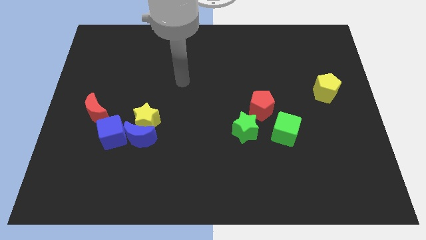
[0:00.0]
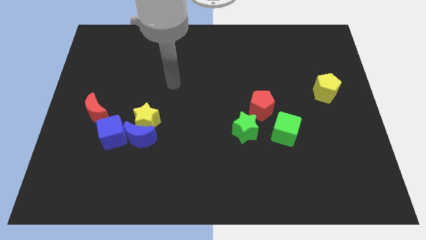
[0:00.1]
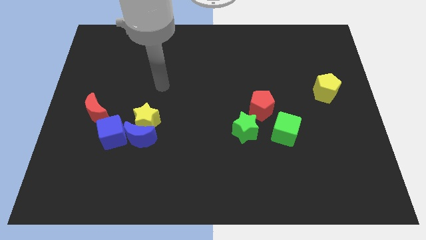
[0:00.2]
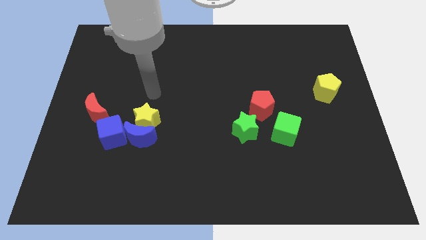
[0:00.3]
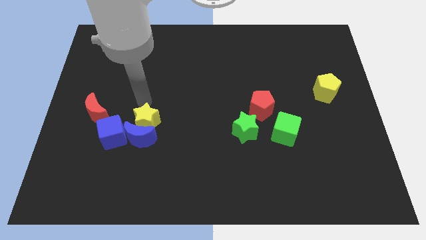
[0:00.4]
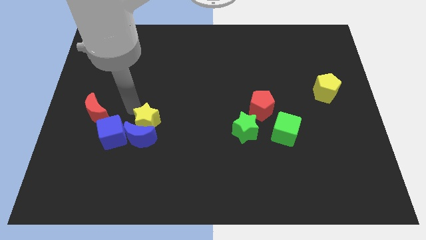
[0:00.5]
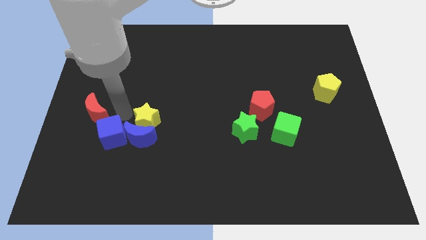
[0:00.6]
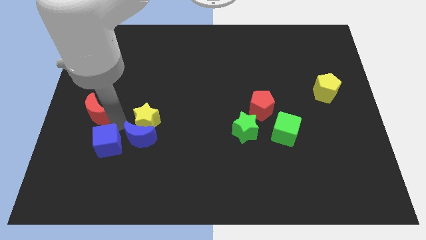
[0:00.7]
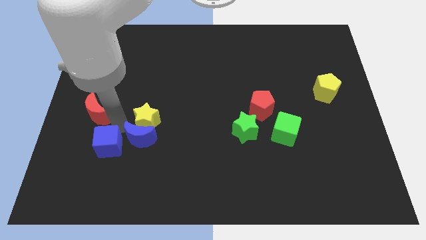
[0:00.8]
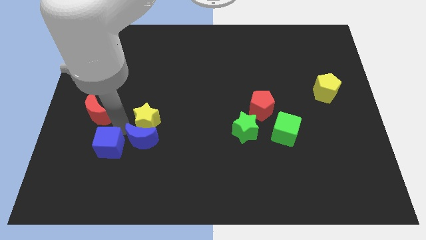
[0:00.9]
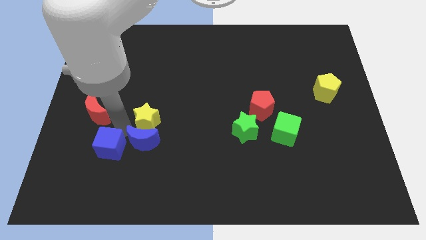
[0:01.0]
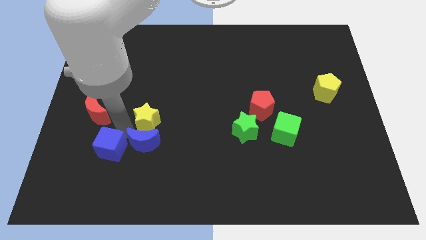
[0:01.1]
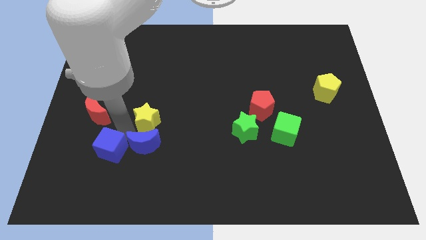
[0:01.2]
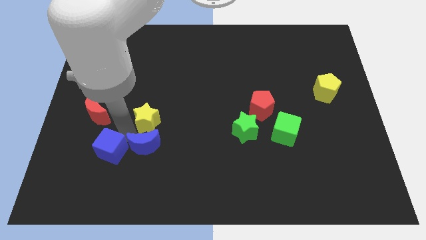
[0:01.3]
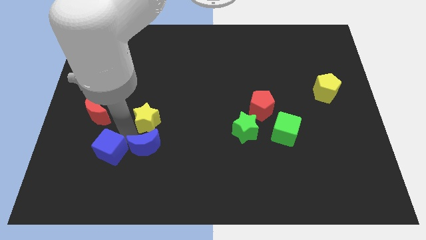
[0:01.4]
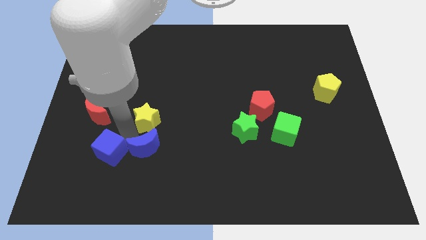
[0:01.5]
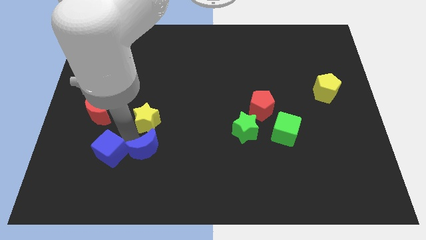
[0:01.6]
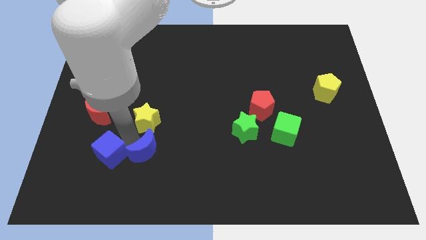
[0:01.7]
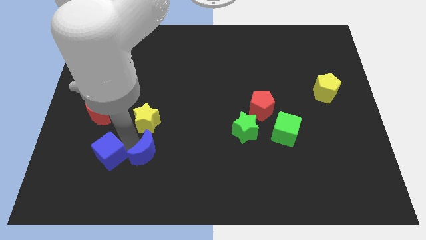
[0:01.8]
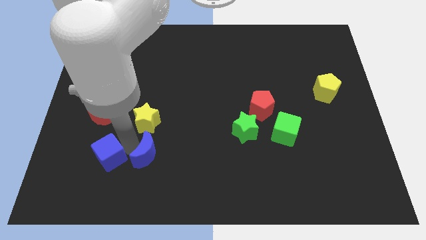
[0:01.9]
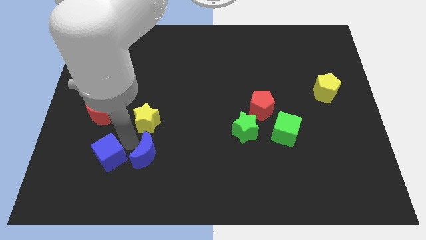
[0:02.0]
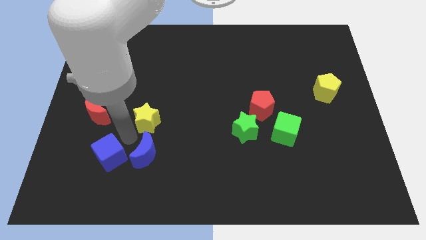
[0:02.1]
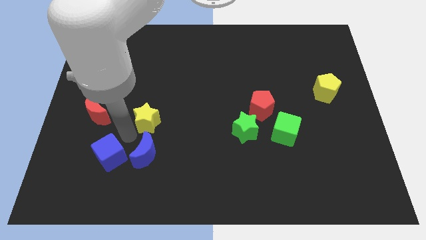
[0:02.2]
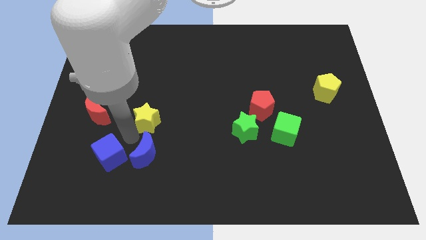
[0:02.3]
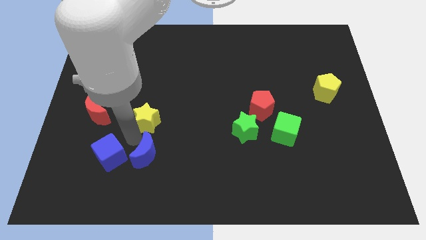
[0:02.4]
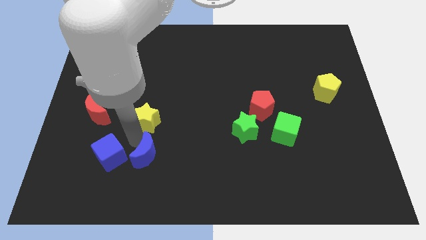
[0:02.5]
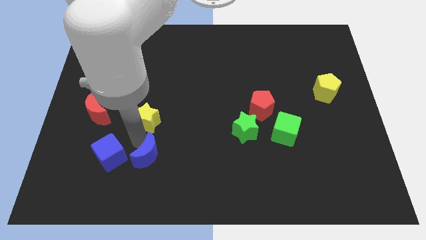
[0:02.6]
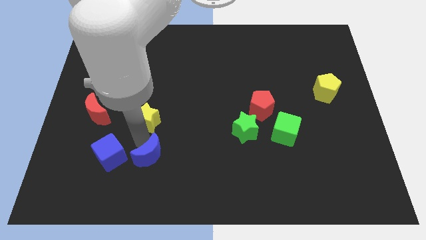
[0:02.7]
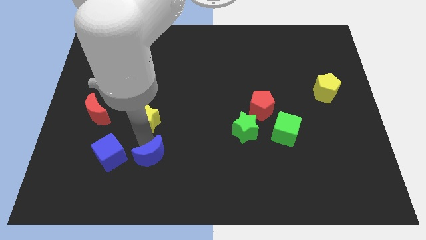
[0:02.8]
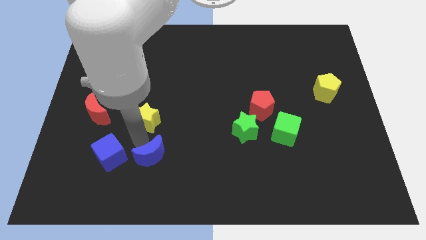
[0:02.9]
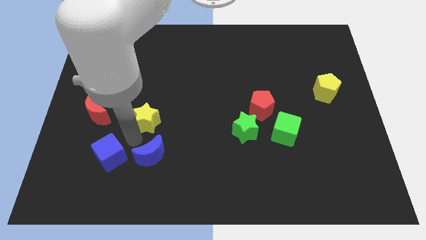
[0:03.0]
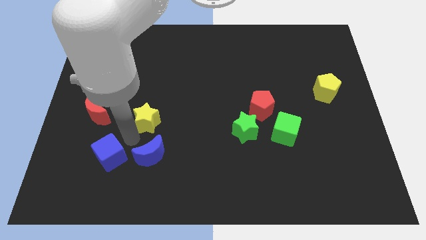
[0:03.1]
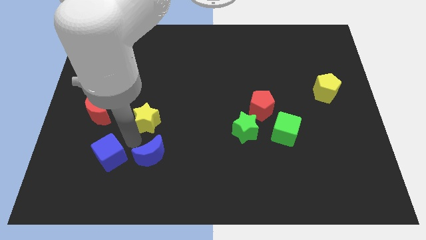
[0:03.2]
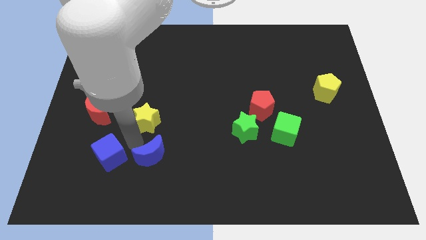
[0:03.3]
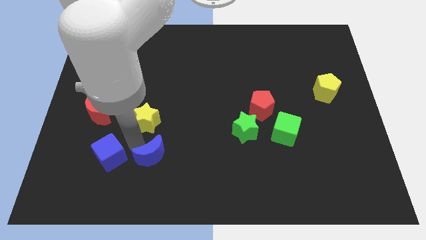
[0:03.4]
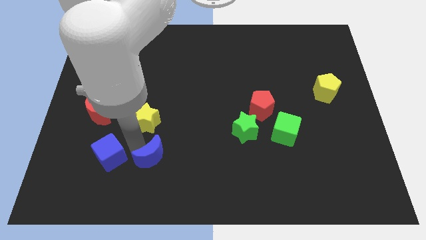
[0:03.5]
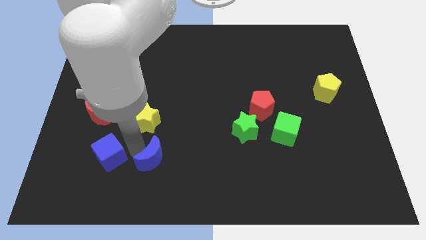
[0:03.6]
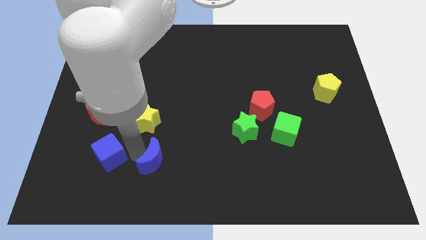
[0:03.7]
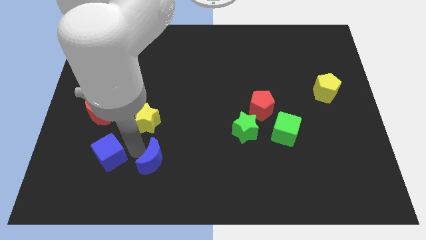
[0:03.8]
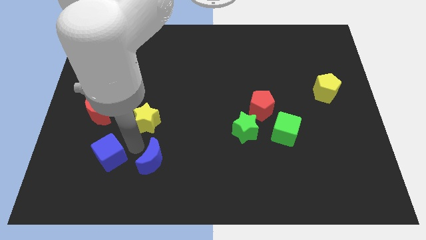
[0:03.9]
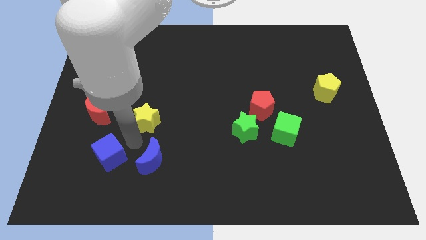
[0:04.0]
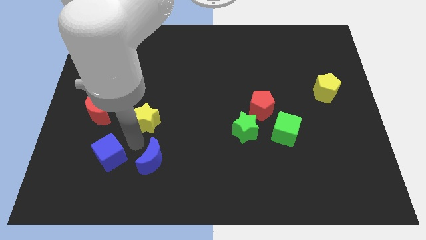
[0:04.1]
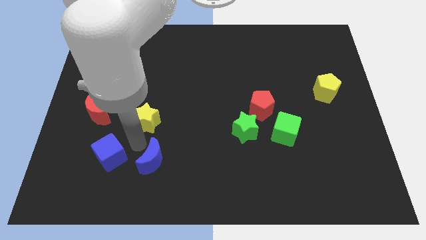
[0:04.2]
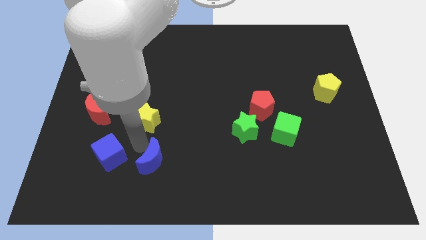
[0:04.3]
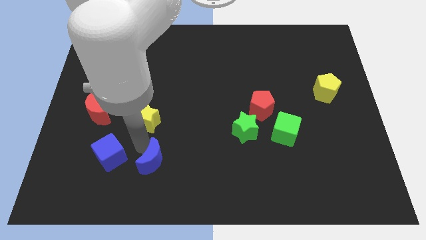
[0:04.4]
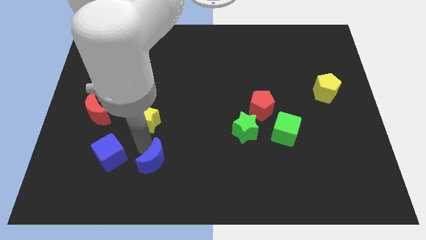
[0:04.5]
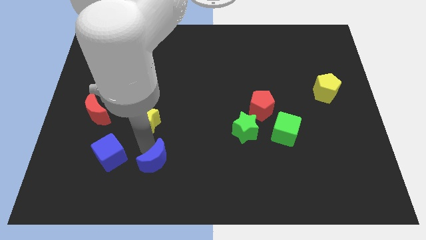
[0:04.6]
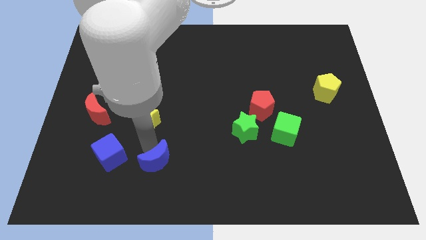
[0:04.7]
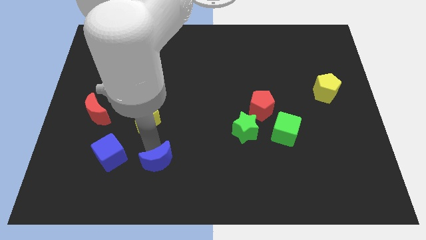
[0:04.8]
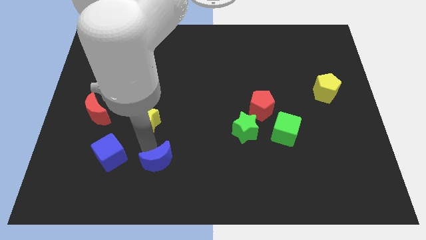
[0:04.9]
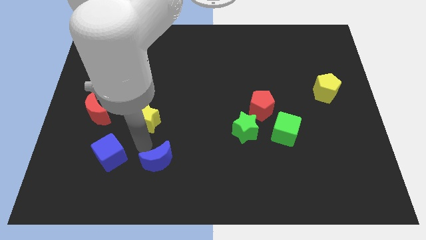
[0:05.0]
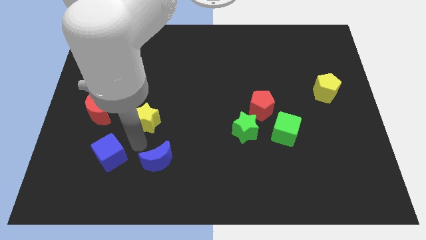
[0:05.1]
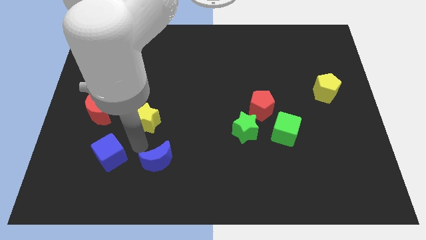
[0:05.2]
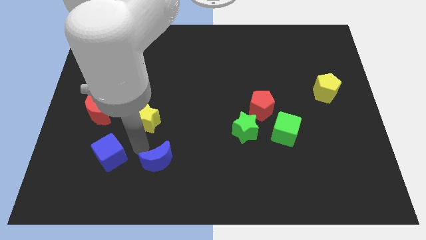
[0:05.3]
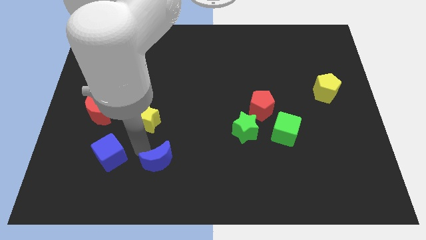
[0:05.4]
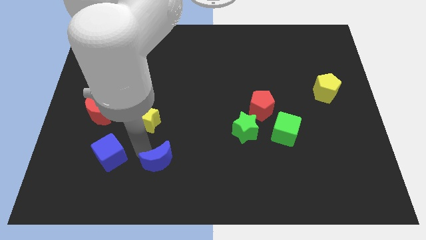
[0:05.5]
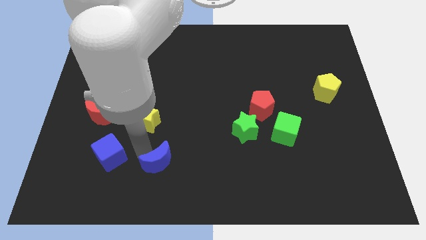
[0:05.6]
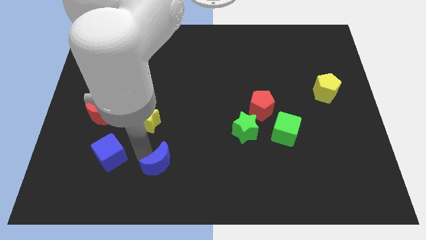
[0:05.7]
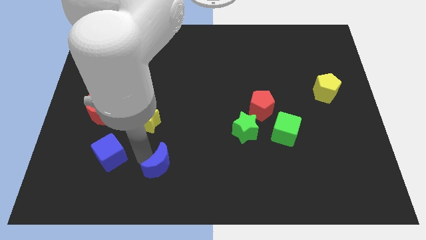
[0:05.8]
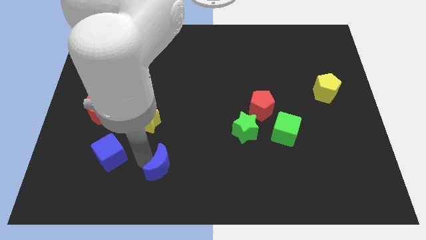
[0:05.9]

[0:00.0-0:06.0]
separate the blue moon from the yellow star and blue cube

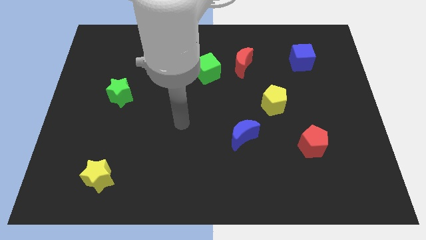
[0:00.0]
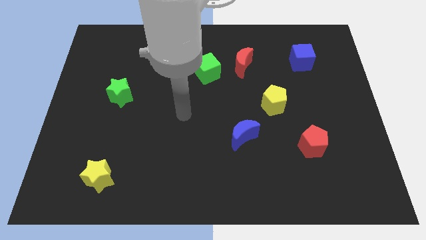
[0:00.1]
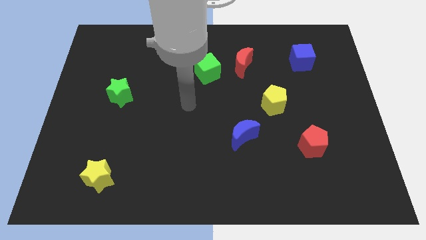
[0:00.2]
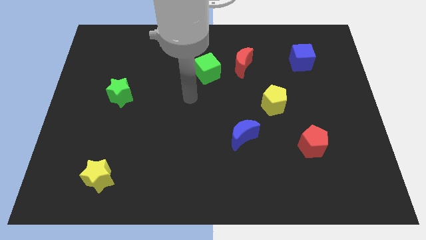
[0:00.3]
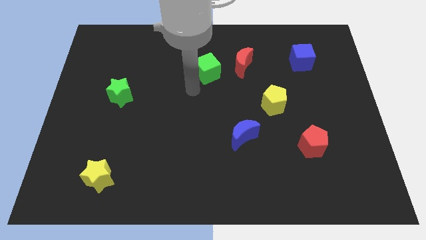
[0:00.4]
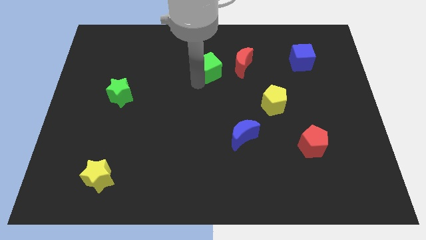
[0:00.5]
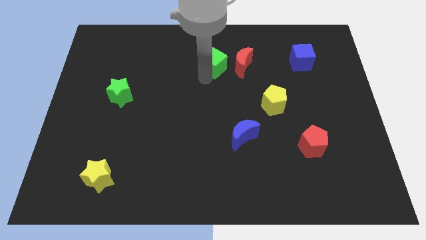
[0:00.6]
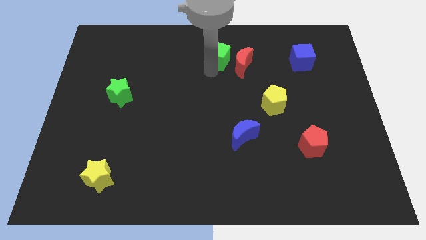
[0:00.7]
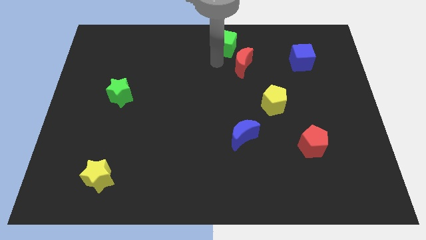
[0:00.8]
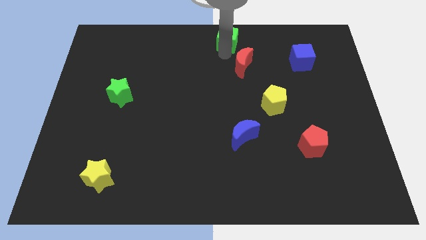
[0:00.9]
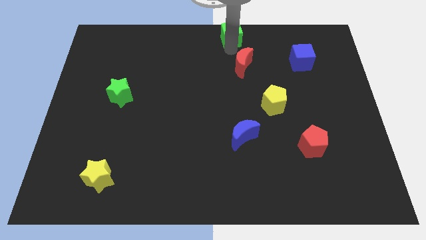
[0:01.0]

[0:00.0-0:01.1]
move the red moon away from the green cube

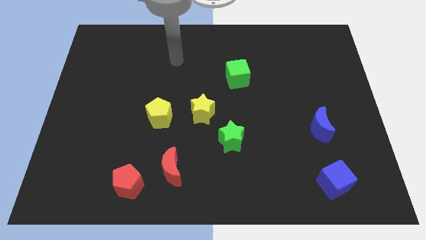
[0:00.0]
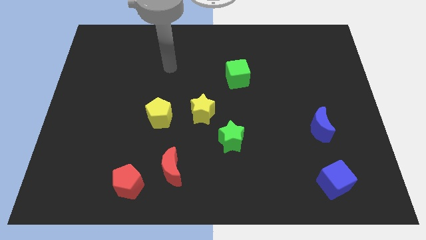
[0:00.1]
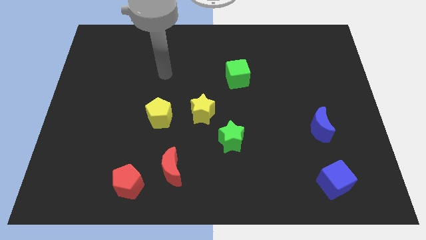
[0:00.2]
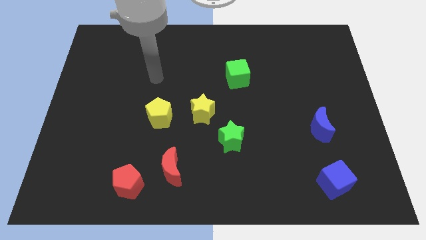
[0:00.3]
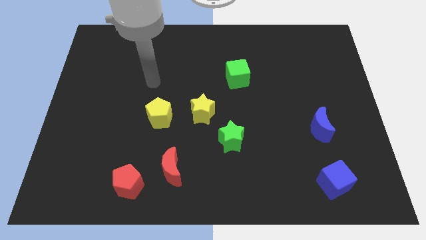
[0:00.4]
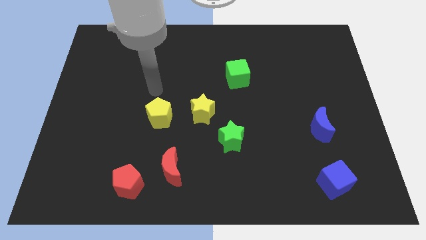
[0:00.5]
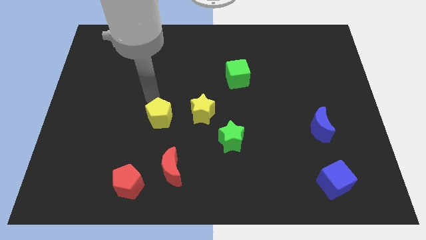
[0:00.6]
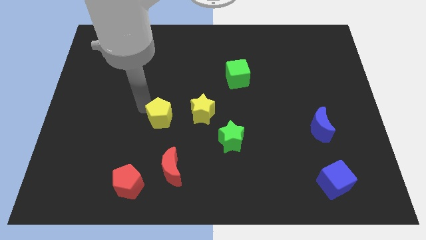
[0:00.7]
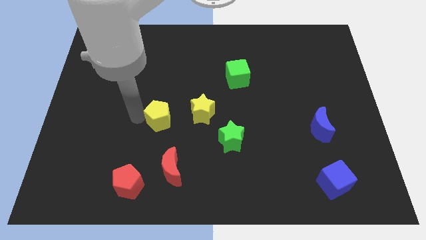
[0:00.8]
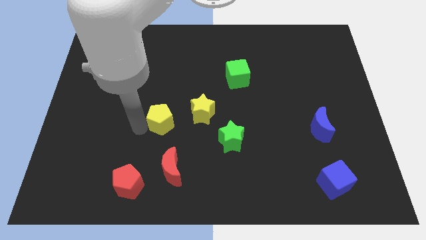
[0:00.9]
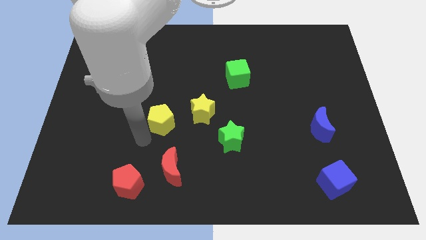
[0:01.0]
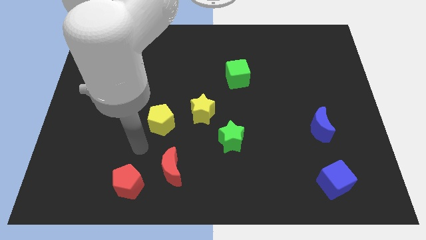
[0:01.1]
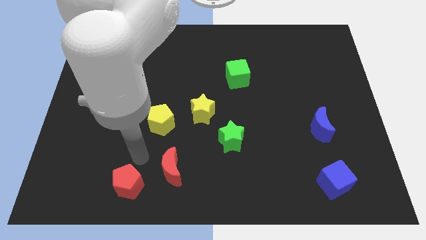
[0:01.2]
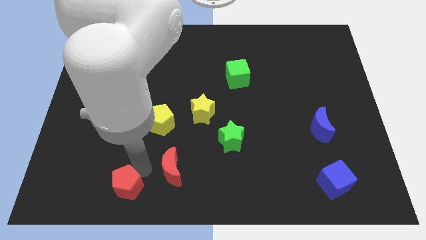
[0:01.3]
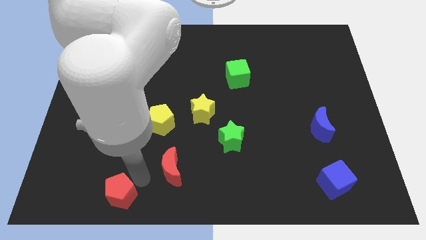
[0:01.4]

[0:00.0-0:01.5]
move the red moon away from the red pentagon

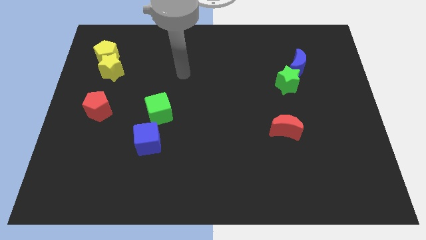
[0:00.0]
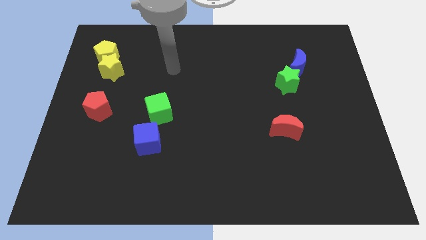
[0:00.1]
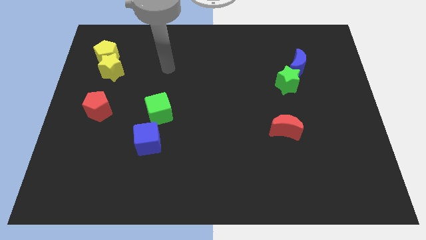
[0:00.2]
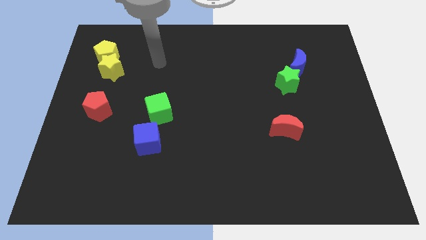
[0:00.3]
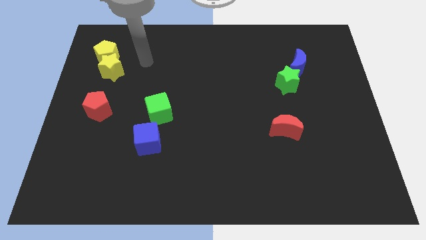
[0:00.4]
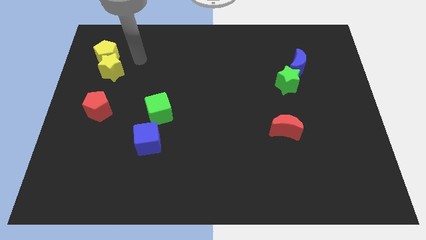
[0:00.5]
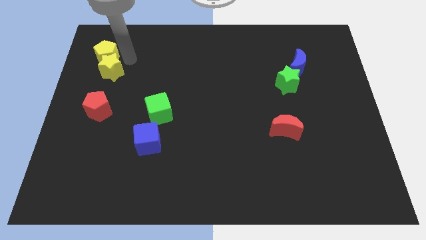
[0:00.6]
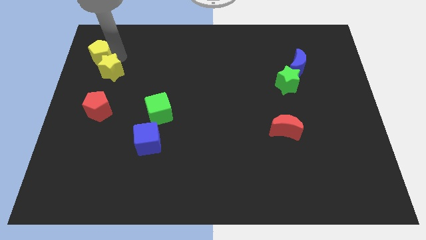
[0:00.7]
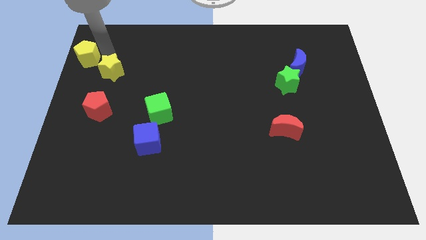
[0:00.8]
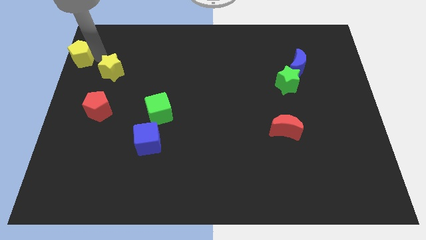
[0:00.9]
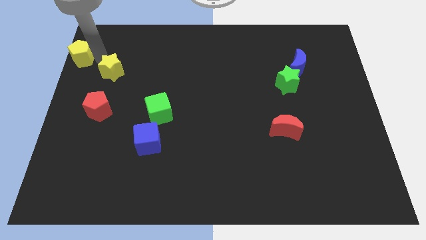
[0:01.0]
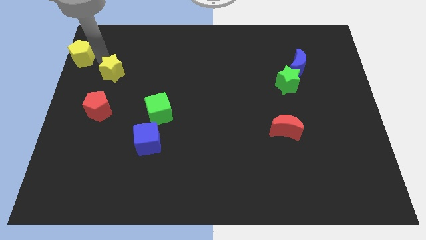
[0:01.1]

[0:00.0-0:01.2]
move the yellow star away from the yellow pentagon
